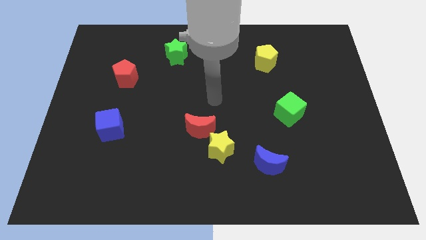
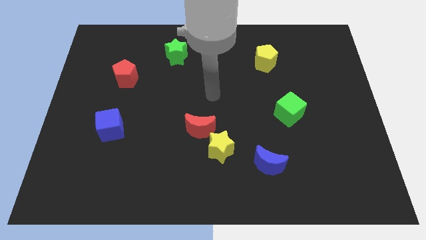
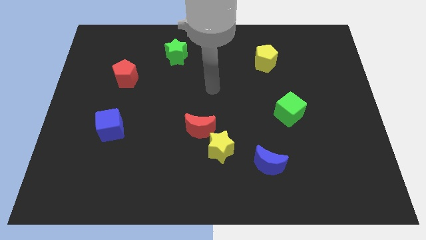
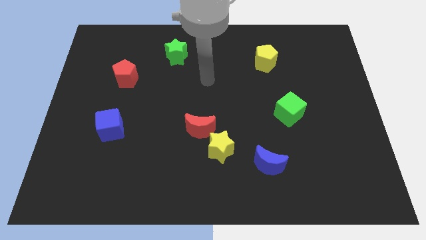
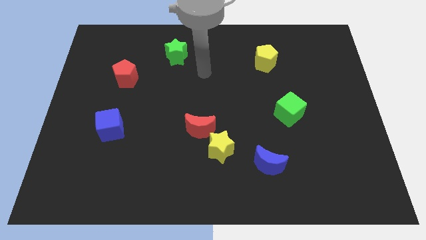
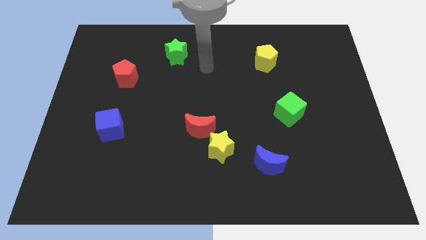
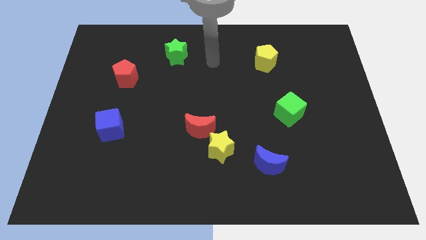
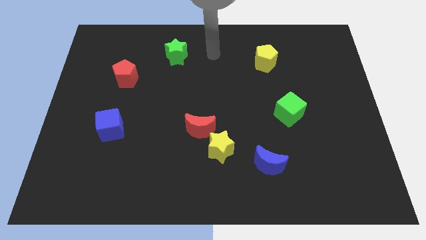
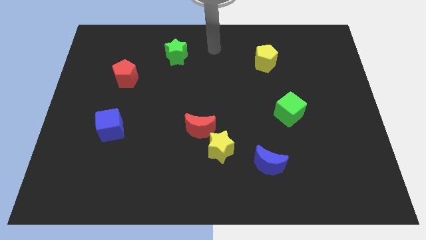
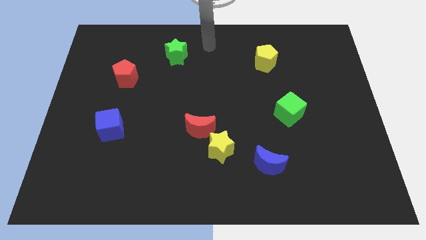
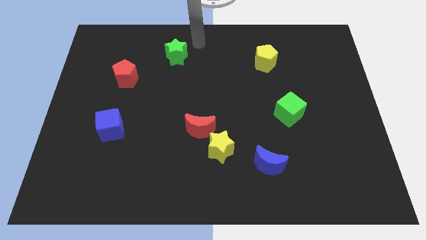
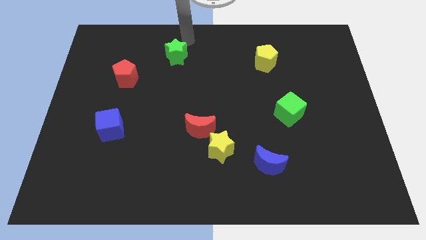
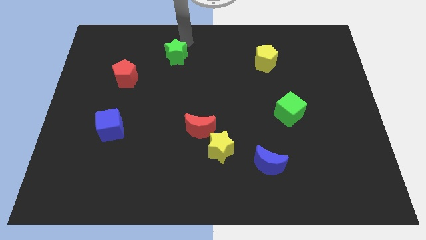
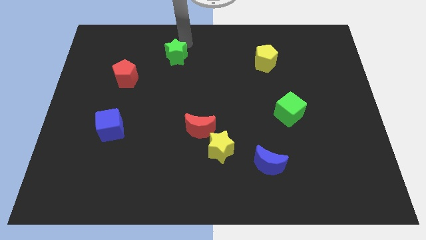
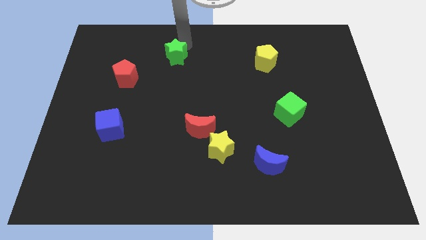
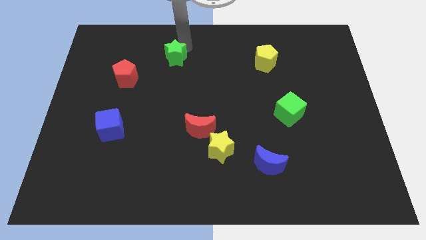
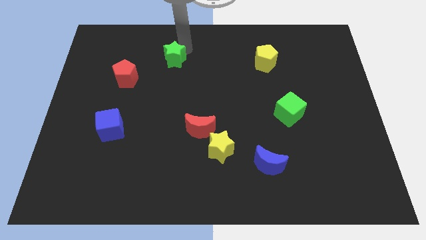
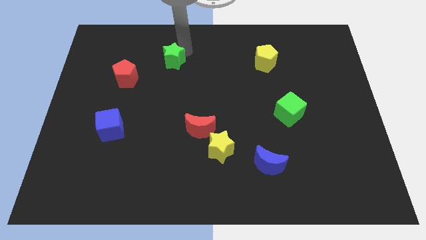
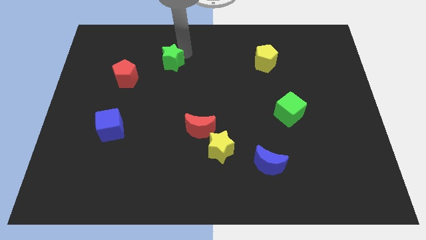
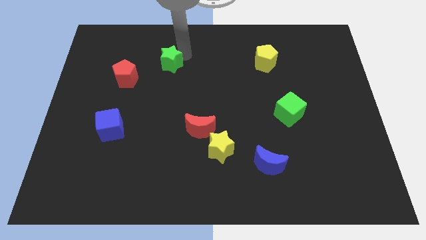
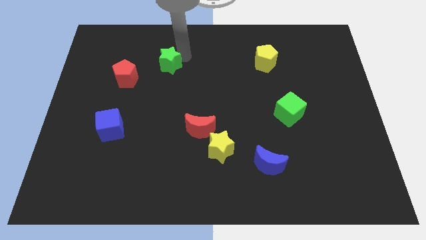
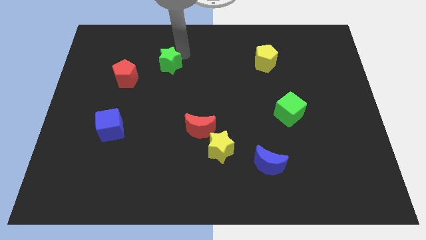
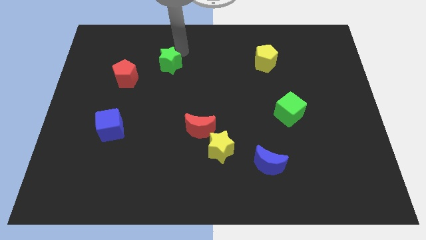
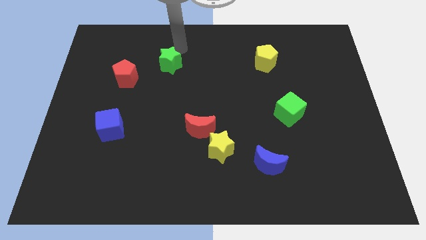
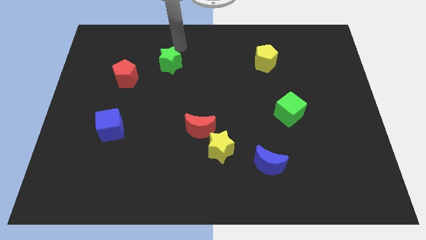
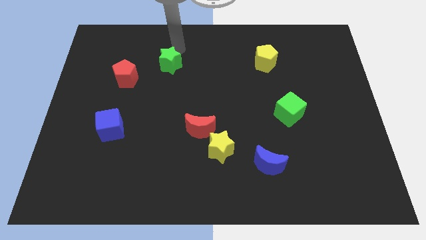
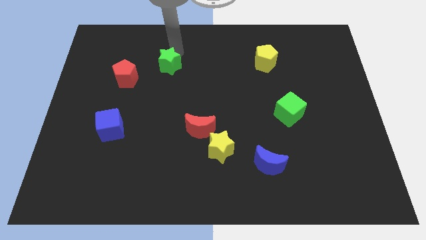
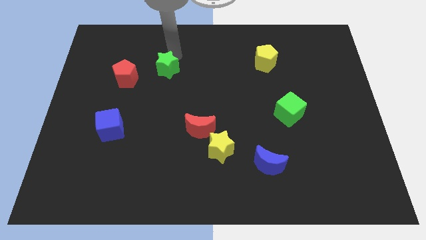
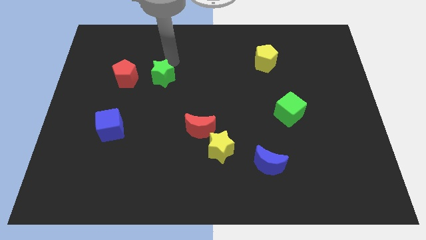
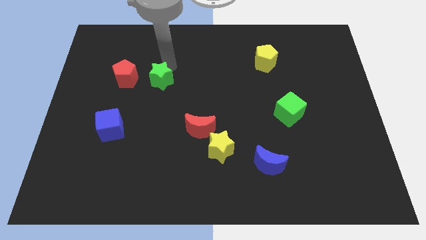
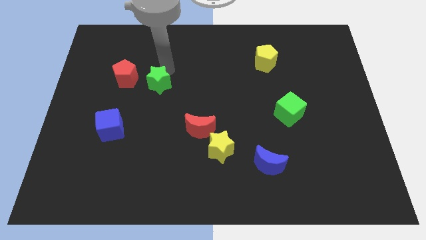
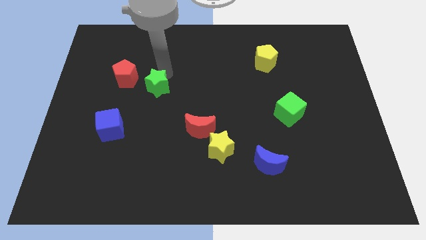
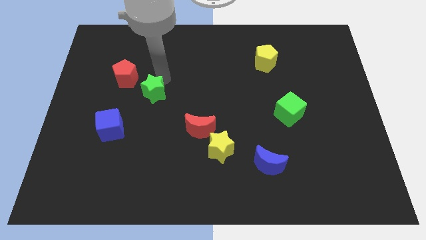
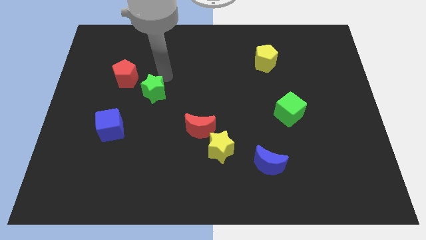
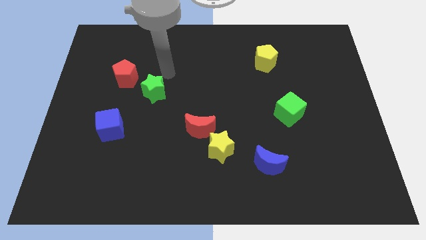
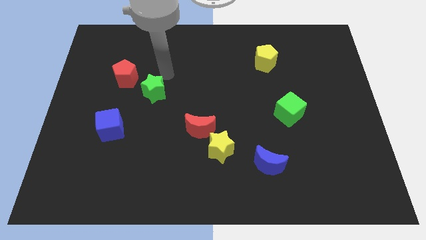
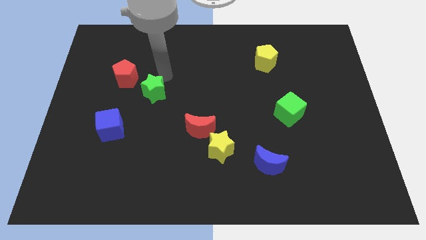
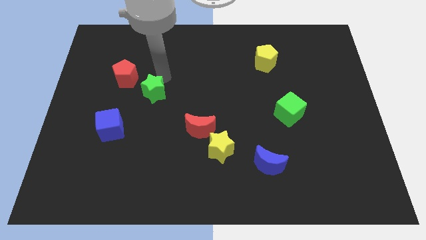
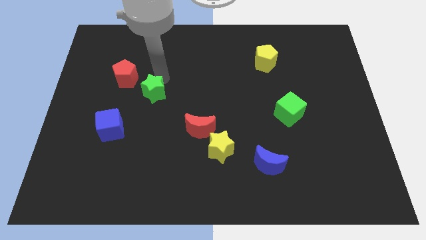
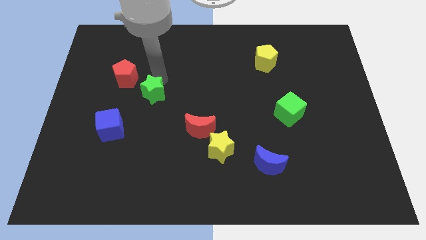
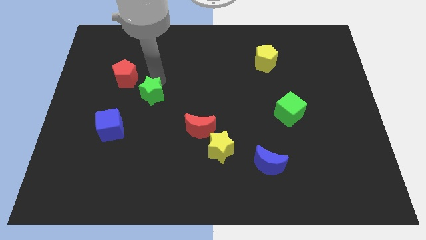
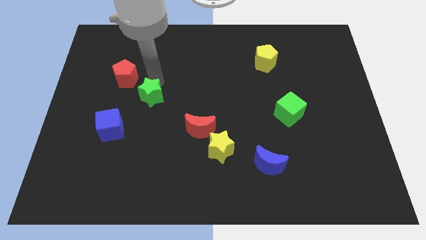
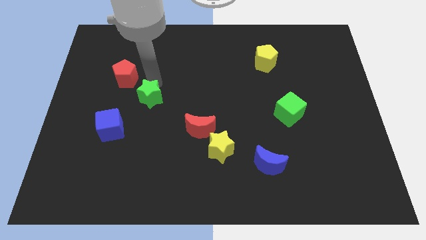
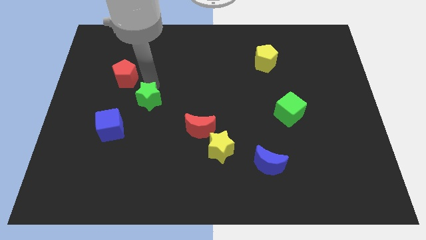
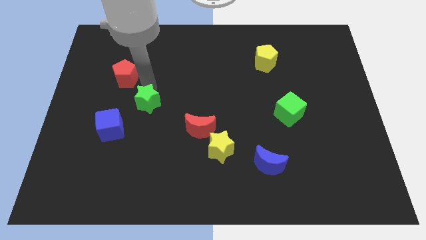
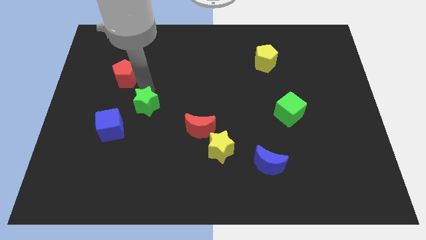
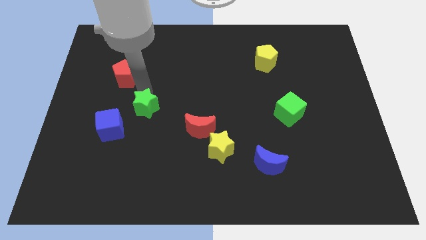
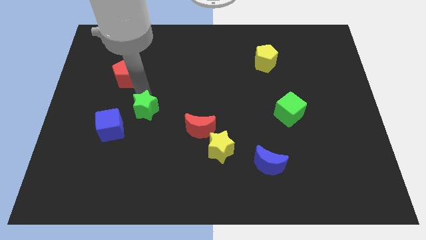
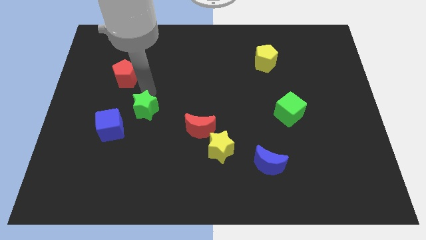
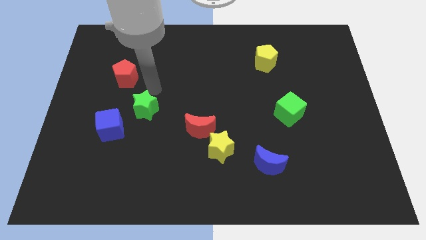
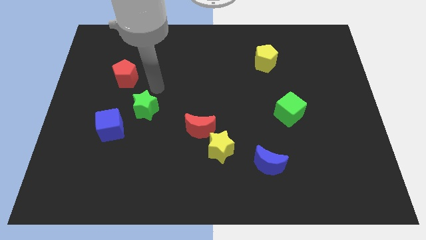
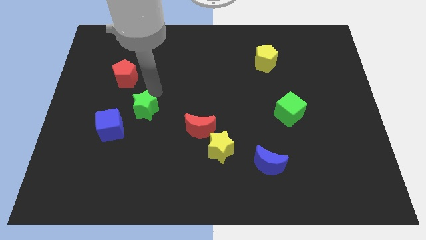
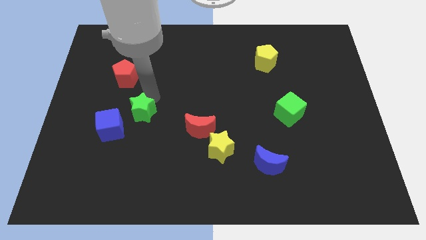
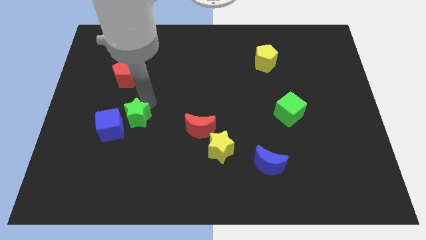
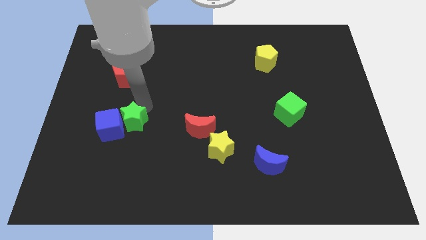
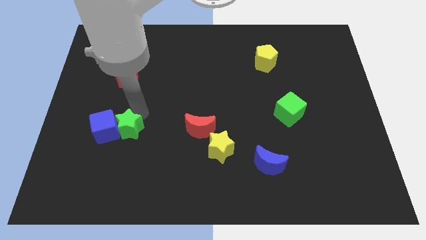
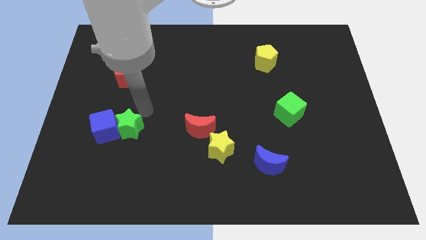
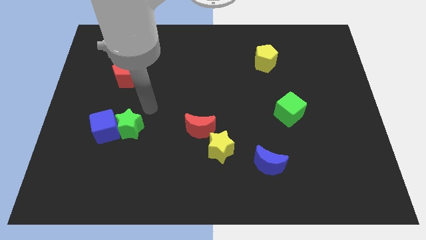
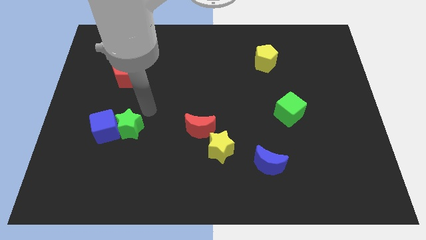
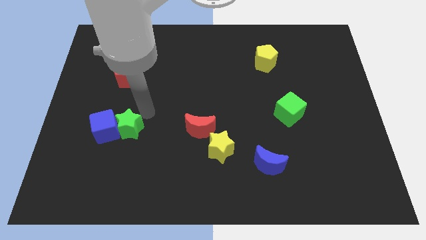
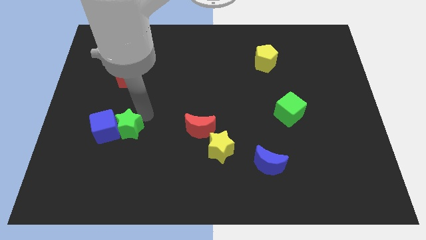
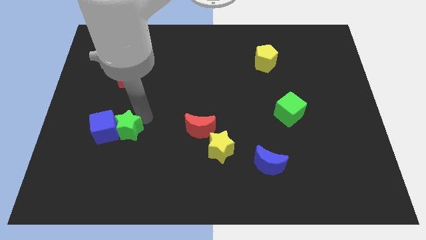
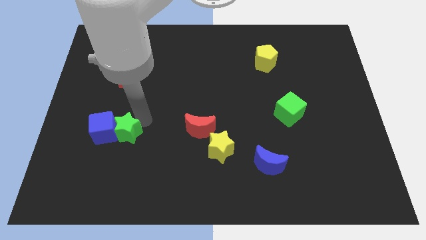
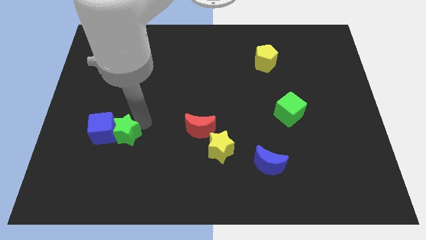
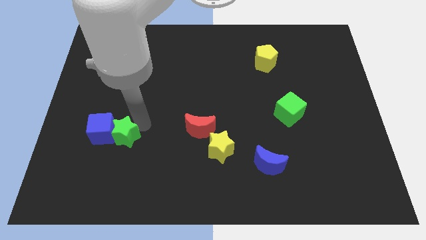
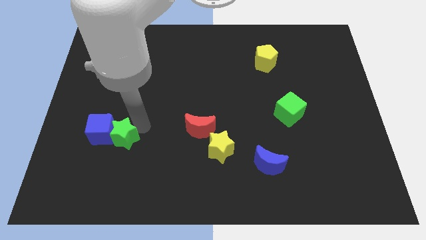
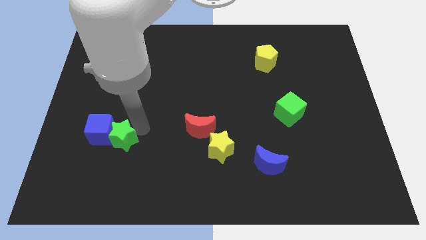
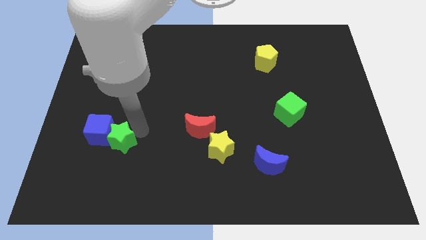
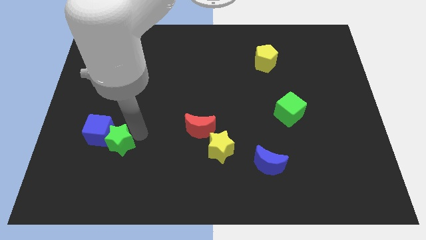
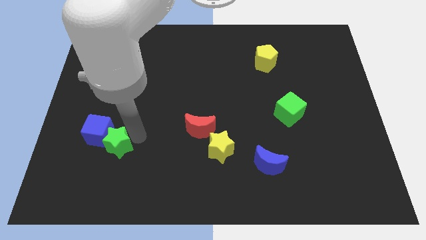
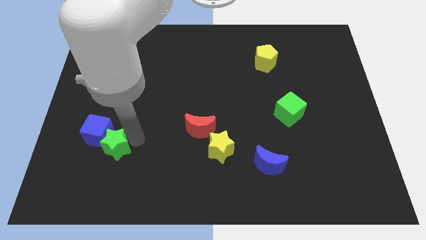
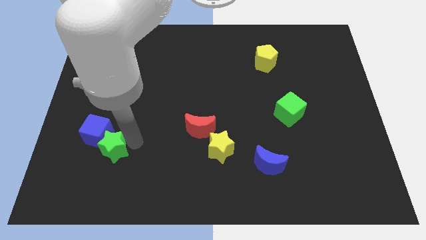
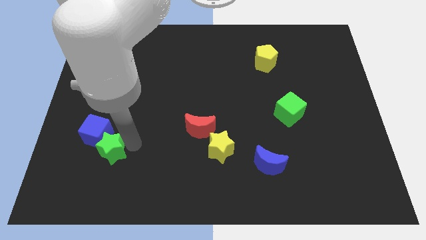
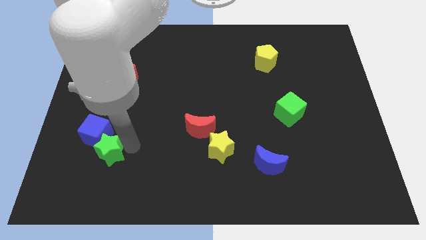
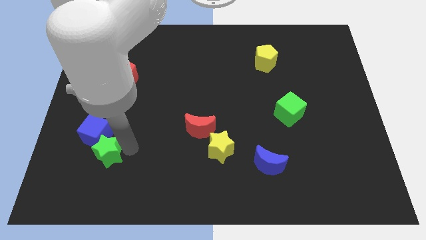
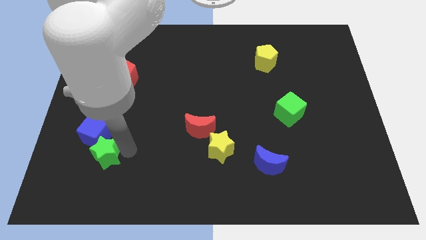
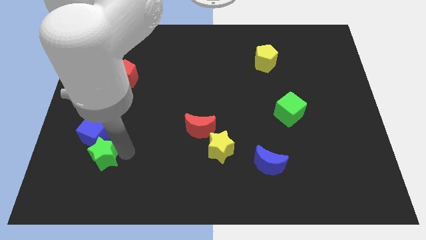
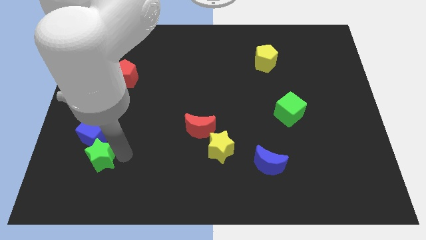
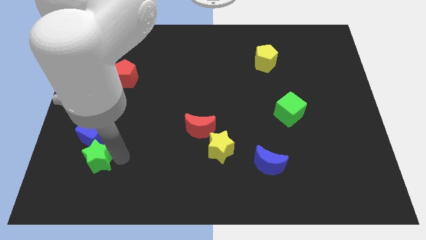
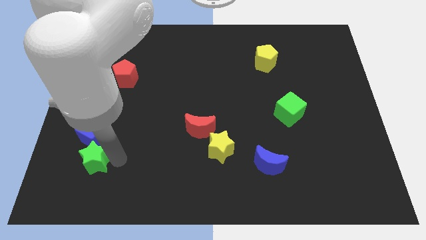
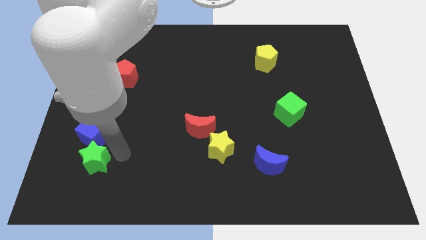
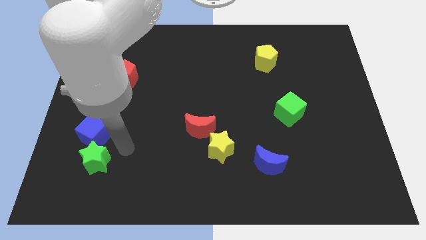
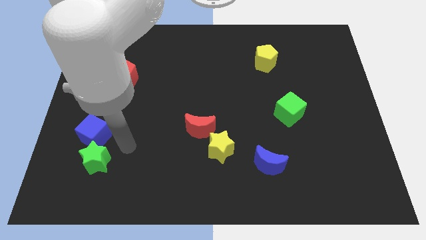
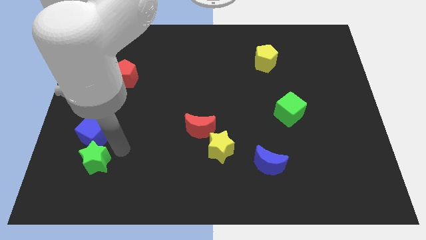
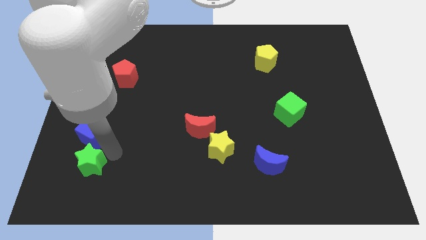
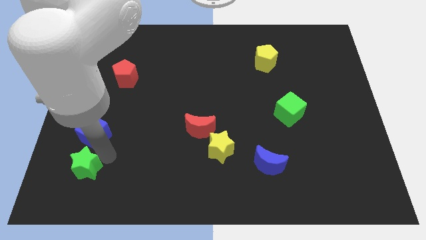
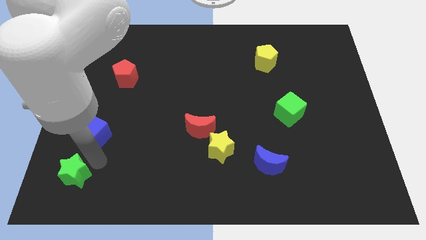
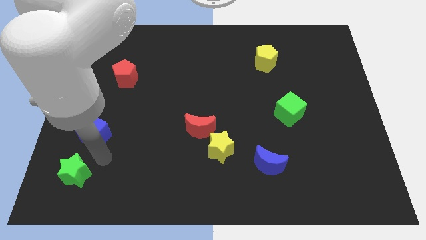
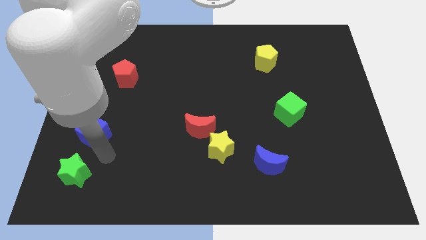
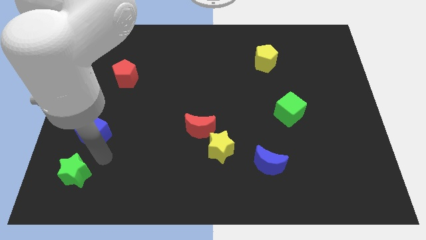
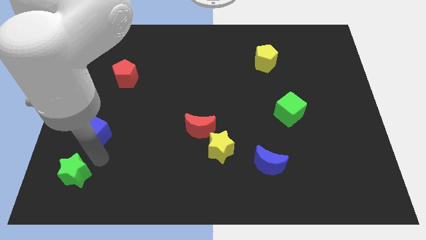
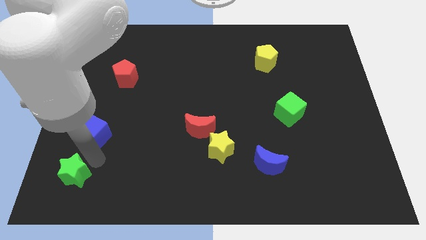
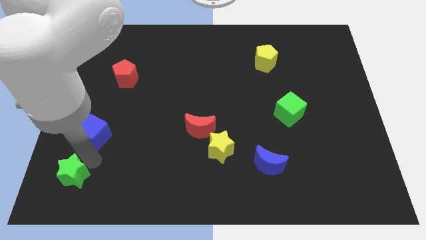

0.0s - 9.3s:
put the green star to the bottom left corner
